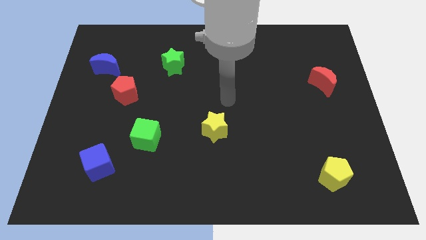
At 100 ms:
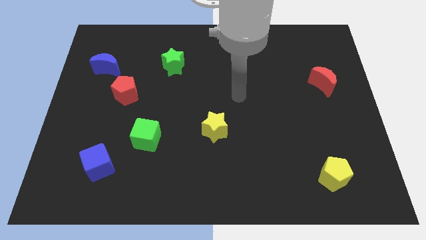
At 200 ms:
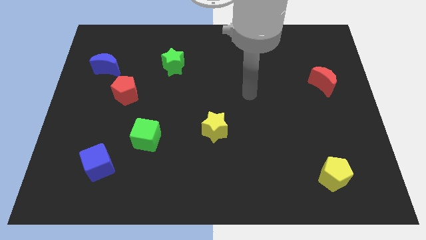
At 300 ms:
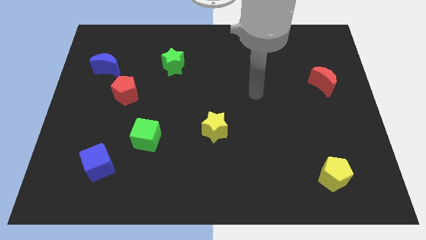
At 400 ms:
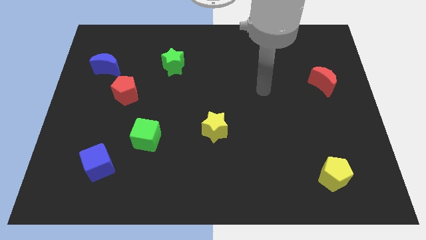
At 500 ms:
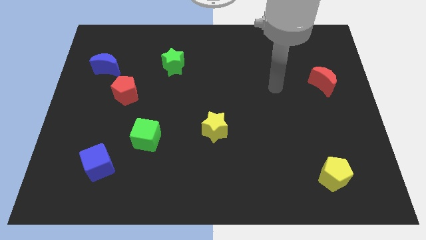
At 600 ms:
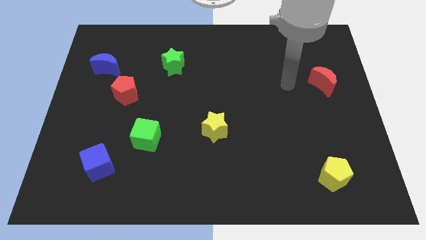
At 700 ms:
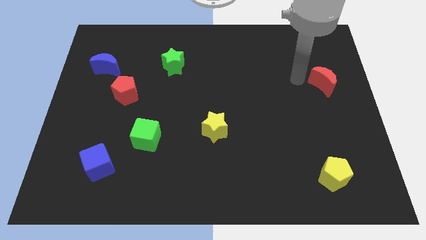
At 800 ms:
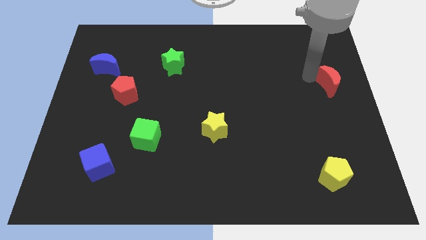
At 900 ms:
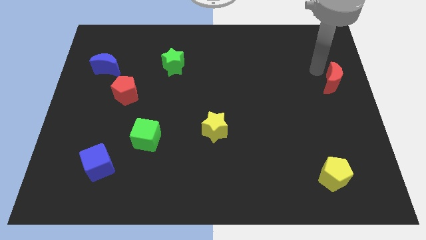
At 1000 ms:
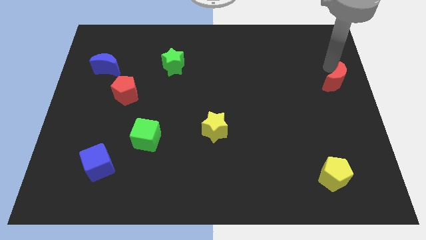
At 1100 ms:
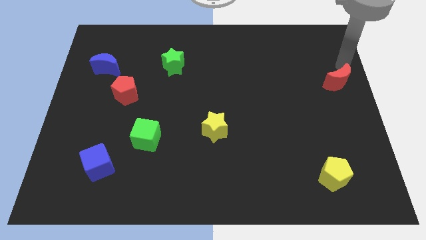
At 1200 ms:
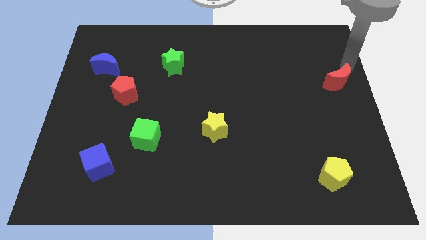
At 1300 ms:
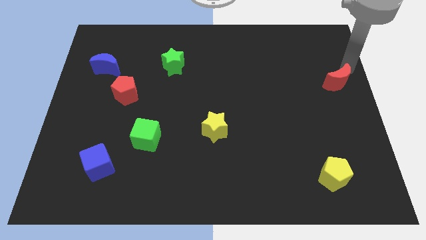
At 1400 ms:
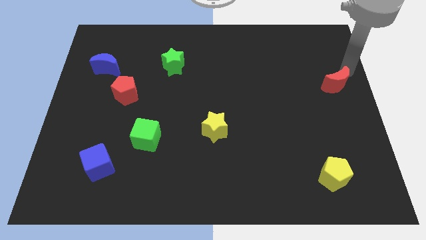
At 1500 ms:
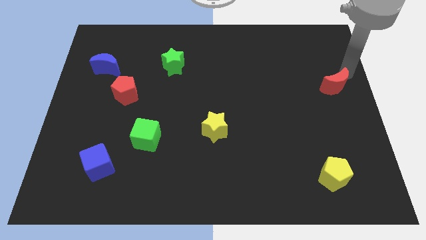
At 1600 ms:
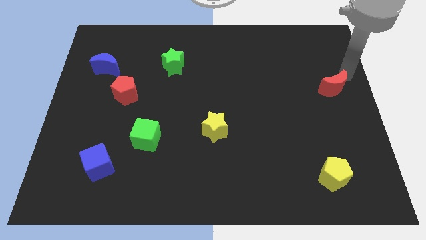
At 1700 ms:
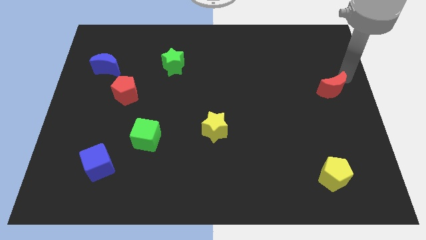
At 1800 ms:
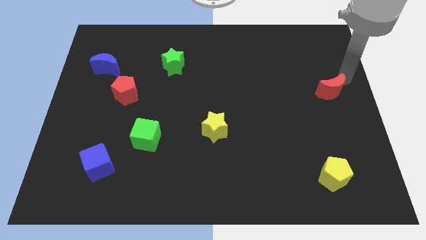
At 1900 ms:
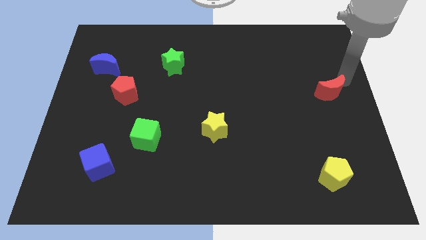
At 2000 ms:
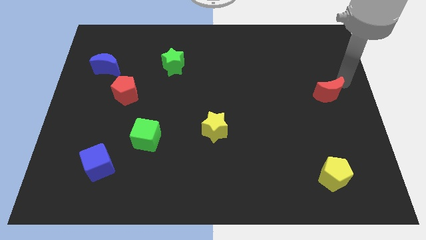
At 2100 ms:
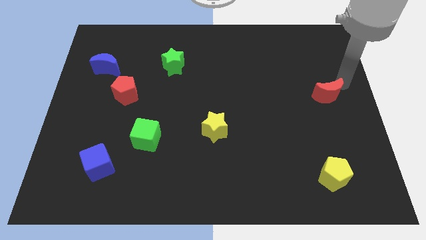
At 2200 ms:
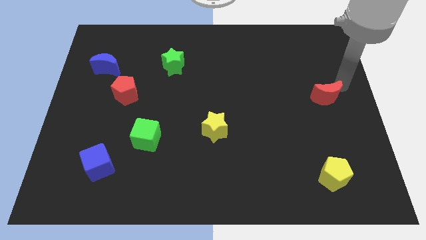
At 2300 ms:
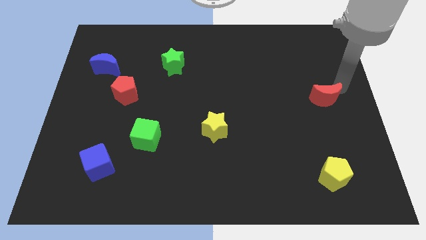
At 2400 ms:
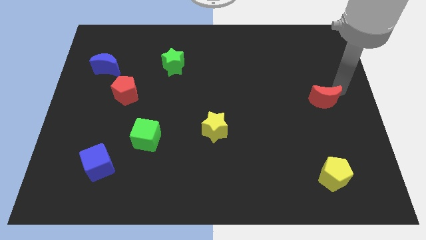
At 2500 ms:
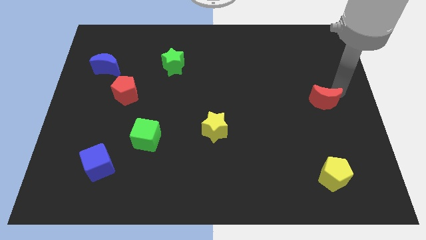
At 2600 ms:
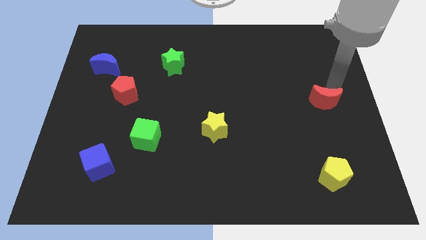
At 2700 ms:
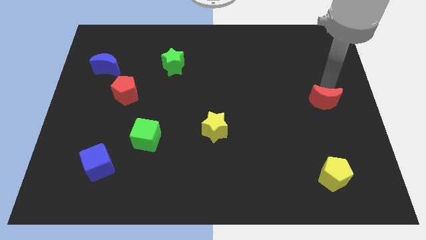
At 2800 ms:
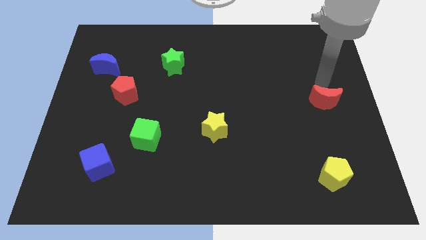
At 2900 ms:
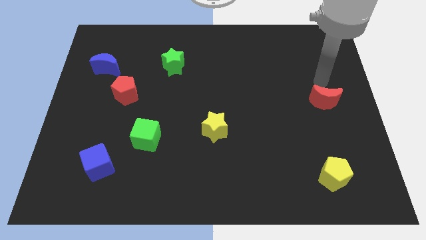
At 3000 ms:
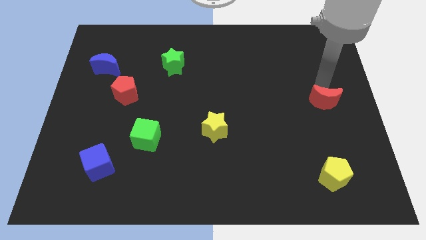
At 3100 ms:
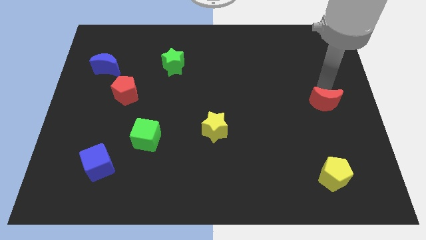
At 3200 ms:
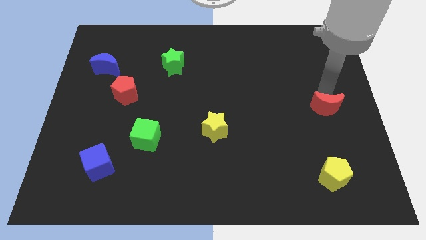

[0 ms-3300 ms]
slightly slide the red moon downwards

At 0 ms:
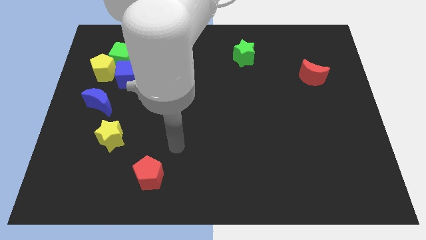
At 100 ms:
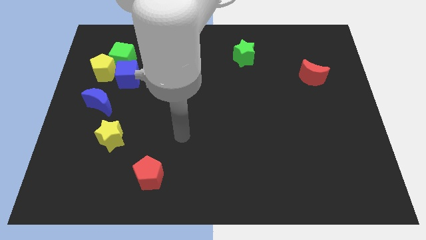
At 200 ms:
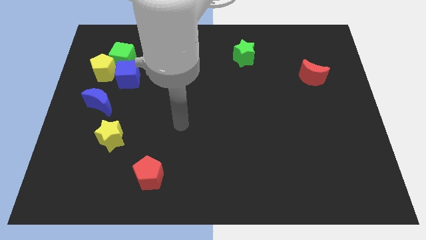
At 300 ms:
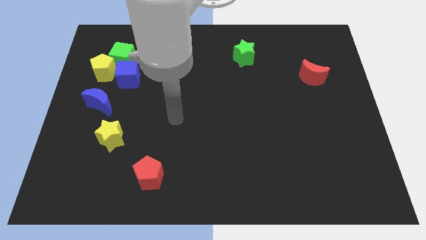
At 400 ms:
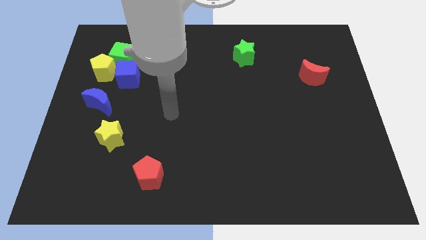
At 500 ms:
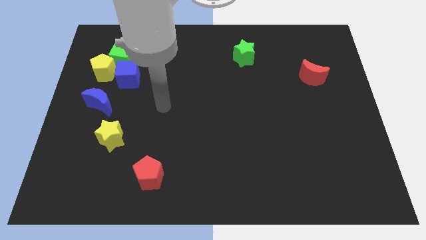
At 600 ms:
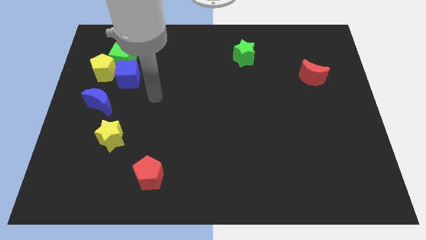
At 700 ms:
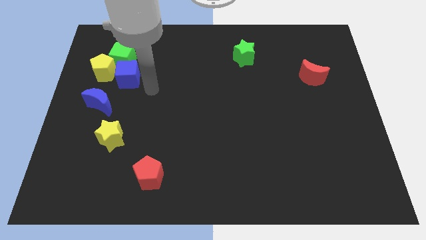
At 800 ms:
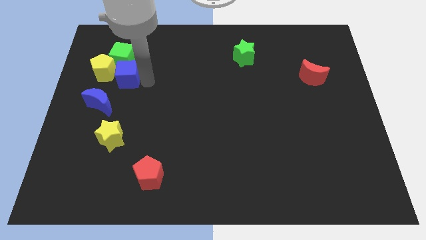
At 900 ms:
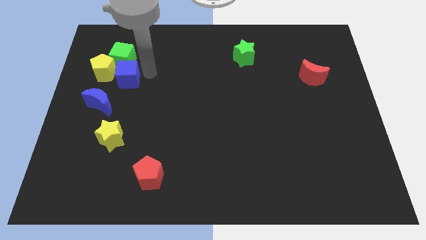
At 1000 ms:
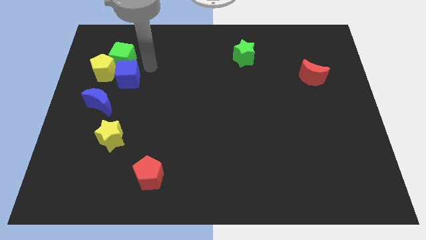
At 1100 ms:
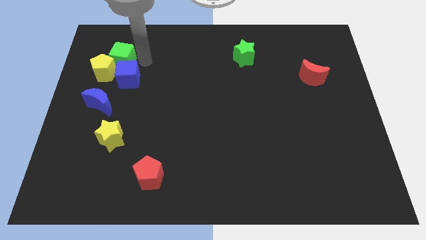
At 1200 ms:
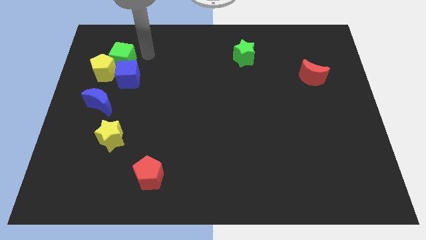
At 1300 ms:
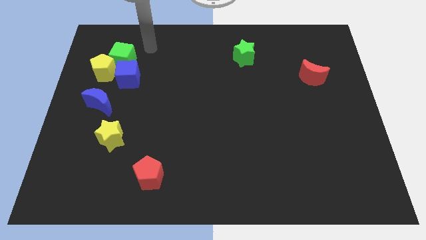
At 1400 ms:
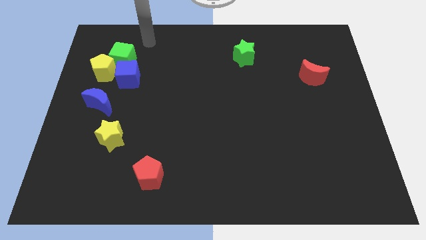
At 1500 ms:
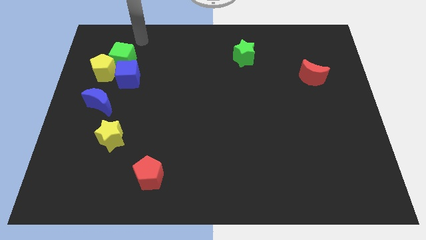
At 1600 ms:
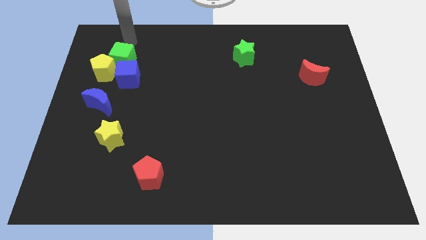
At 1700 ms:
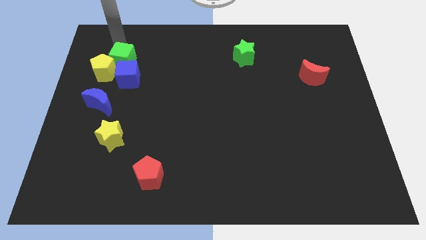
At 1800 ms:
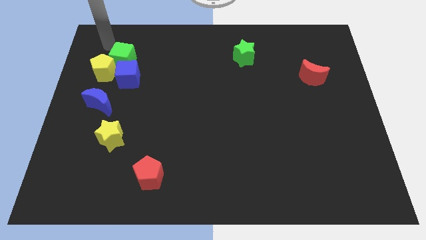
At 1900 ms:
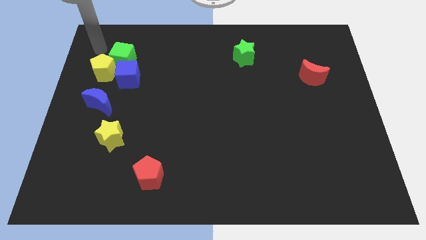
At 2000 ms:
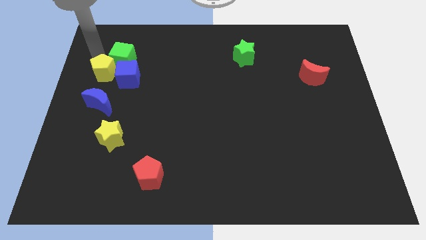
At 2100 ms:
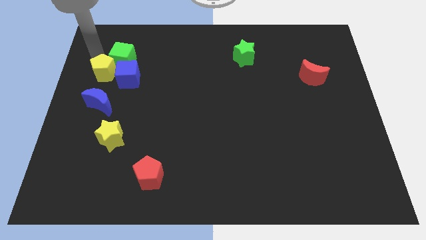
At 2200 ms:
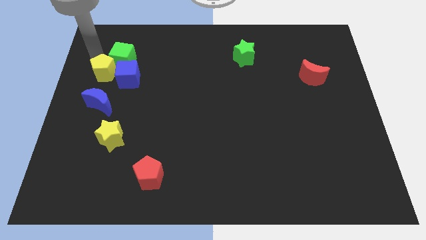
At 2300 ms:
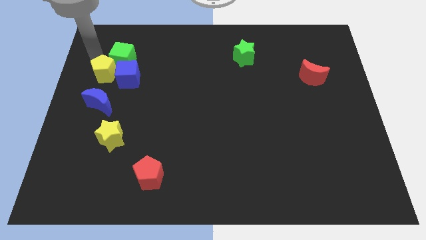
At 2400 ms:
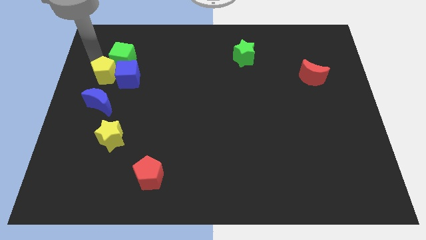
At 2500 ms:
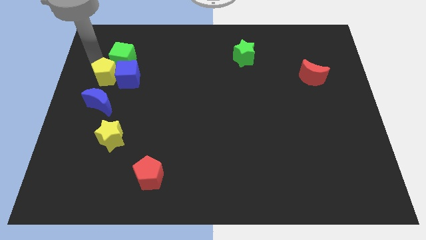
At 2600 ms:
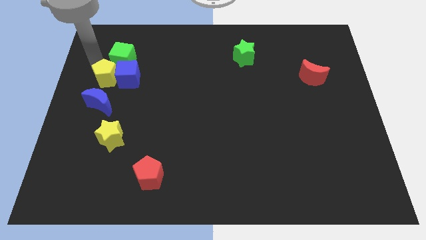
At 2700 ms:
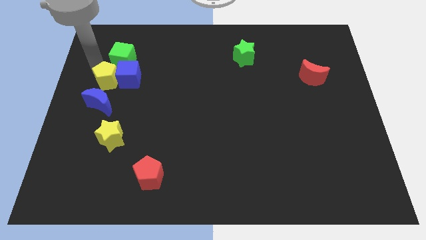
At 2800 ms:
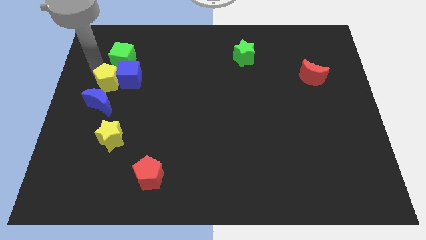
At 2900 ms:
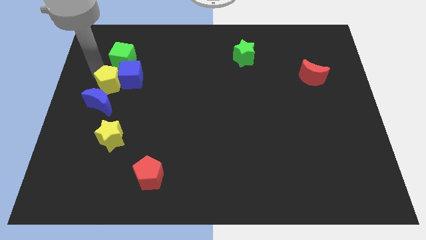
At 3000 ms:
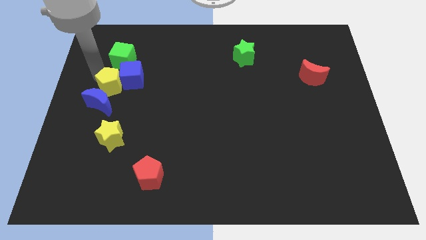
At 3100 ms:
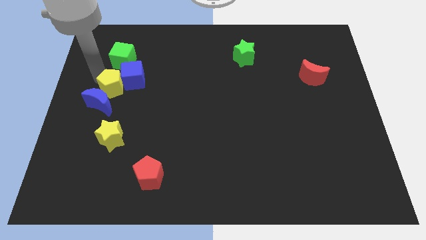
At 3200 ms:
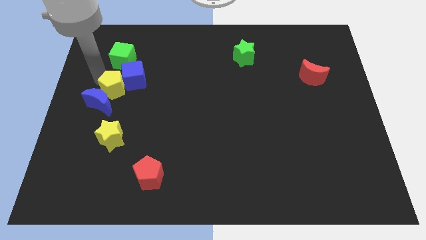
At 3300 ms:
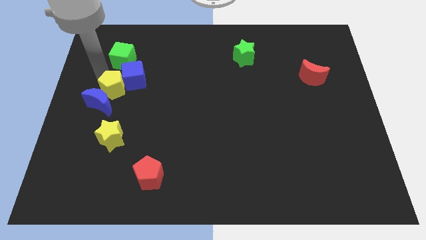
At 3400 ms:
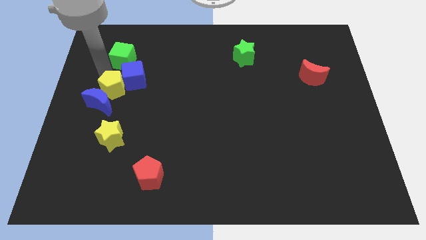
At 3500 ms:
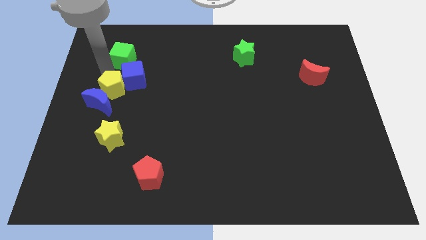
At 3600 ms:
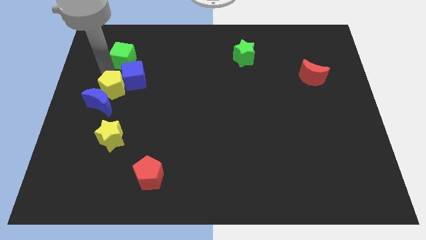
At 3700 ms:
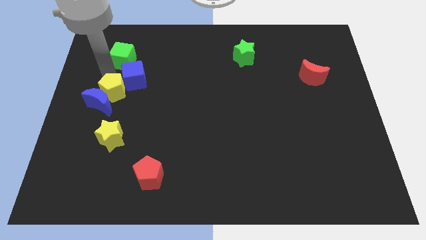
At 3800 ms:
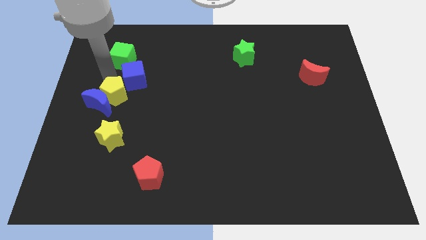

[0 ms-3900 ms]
move the yellow pentagon a little bit downwards

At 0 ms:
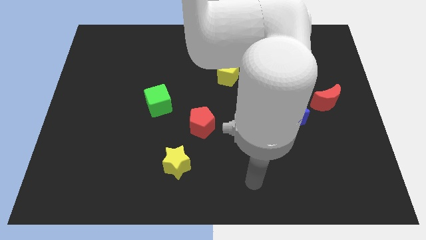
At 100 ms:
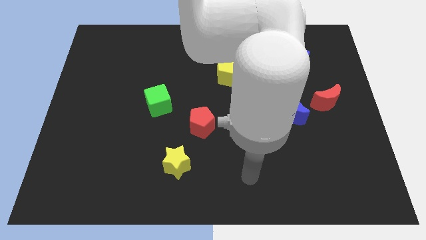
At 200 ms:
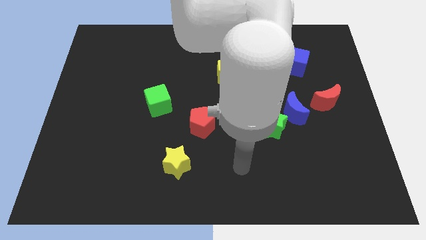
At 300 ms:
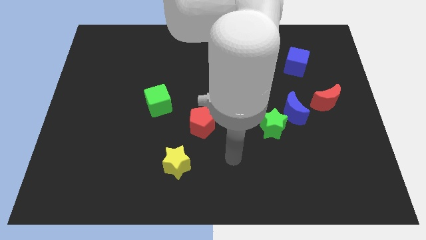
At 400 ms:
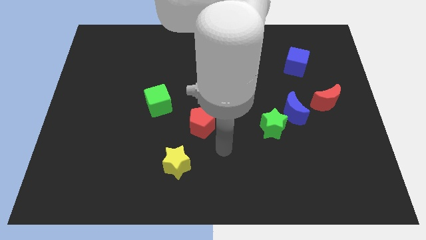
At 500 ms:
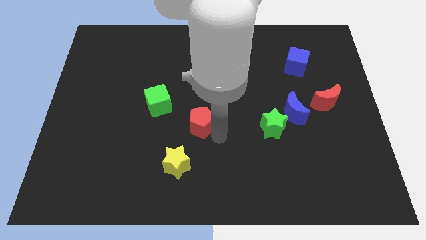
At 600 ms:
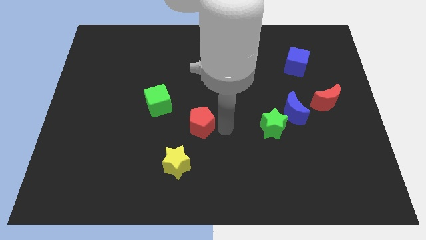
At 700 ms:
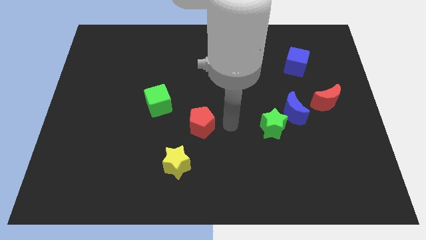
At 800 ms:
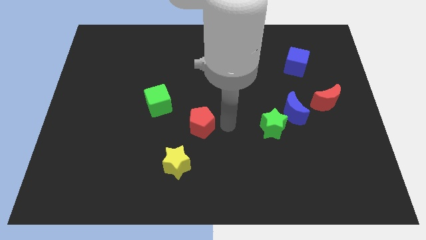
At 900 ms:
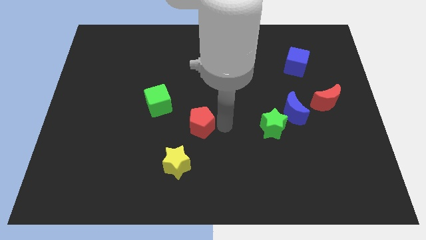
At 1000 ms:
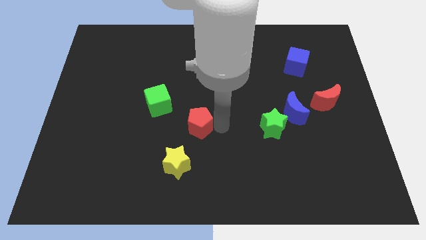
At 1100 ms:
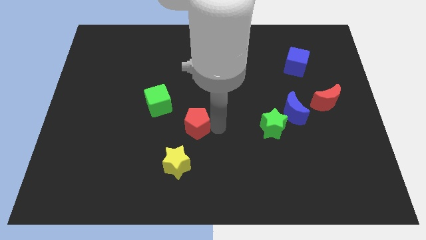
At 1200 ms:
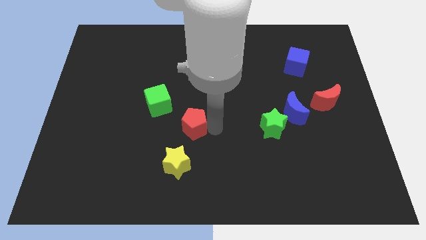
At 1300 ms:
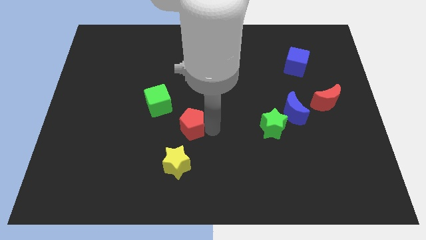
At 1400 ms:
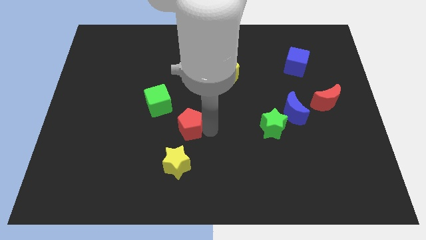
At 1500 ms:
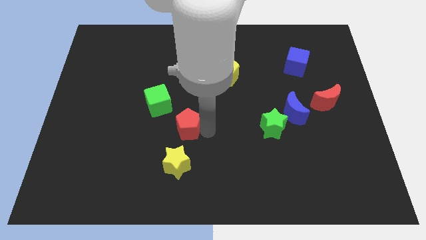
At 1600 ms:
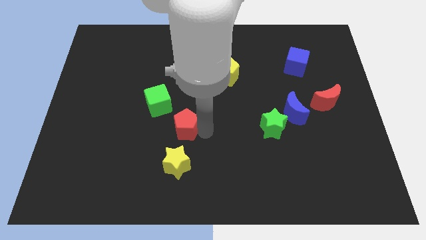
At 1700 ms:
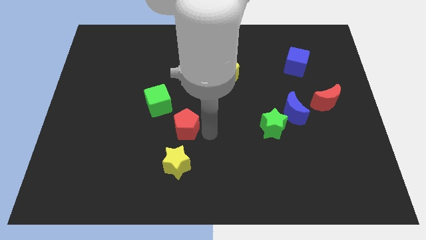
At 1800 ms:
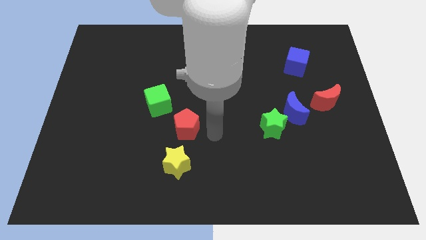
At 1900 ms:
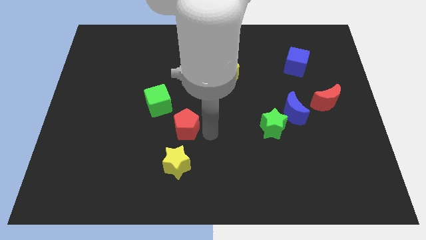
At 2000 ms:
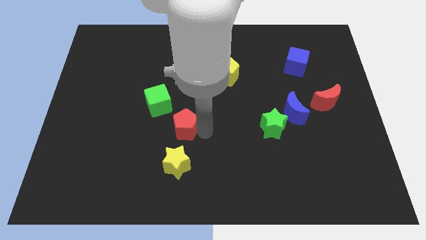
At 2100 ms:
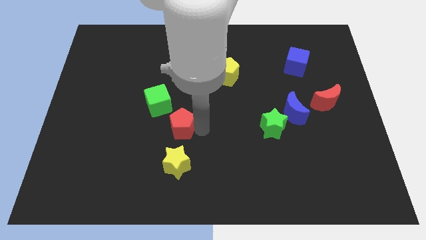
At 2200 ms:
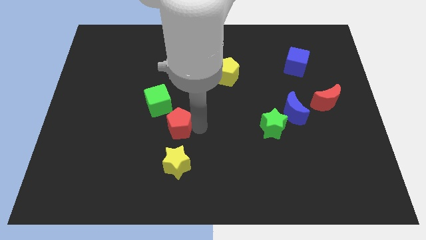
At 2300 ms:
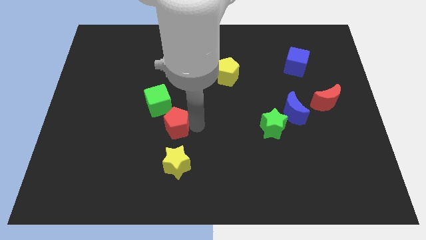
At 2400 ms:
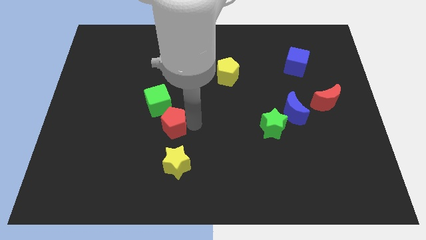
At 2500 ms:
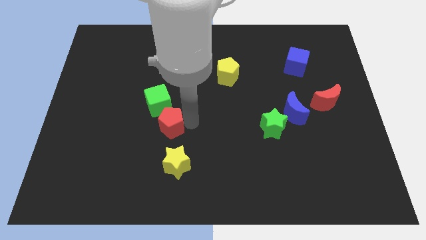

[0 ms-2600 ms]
slightly slide the red pentagon left
